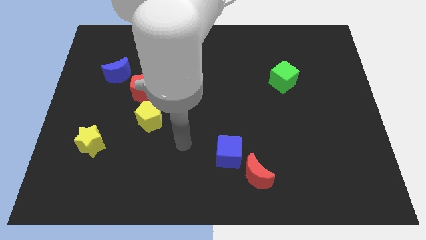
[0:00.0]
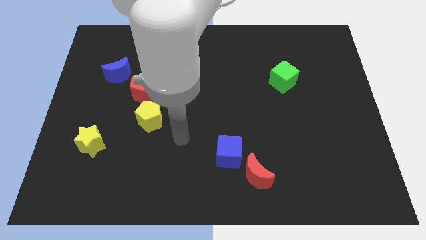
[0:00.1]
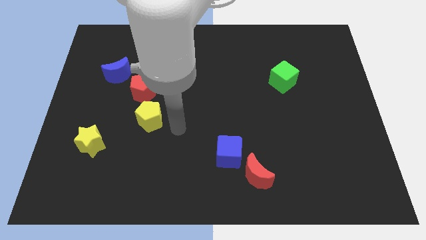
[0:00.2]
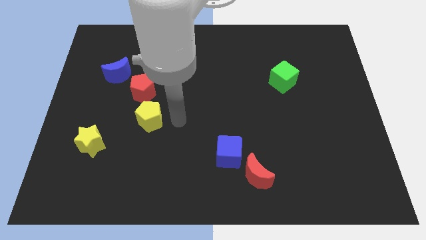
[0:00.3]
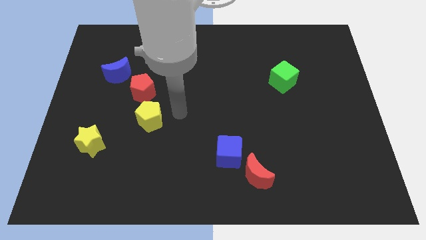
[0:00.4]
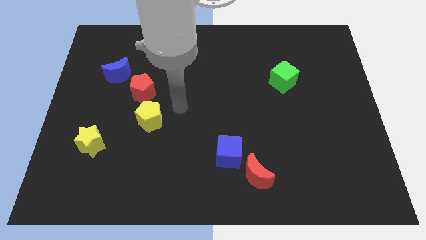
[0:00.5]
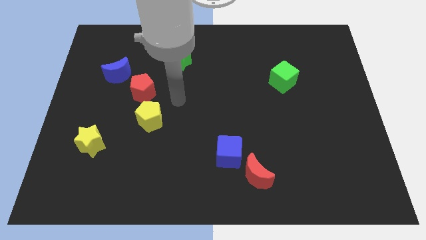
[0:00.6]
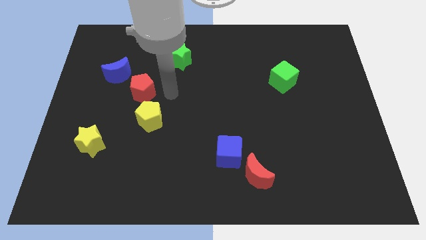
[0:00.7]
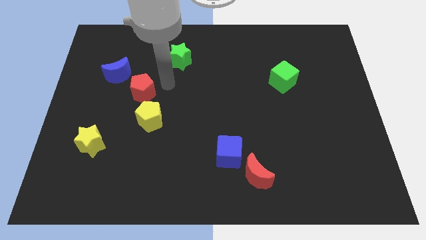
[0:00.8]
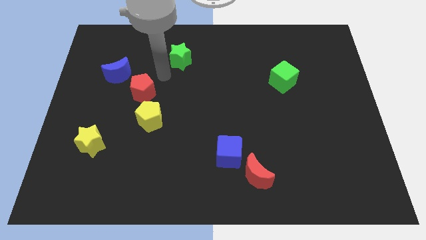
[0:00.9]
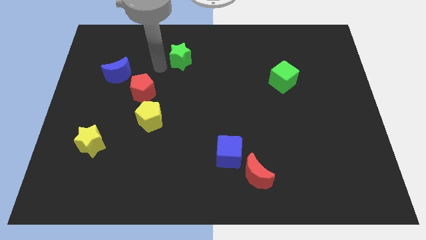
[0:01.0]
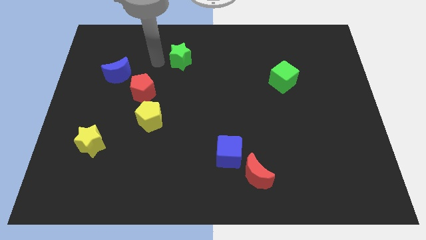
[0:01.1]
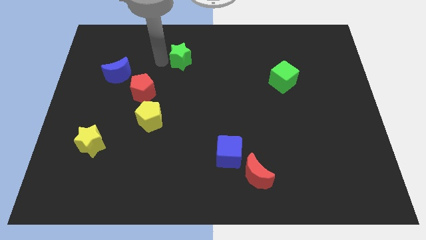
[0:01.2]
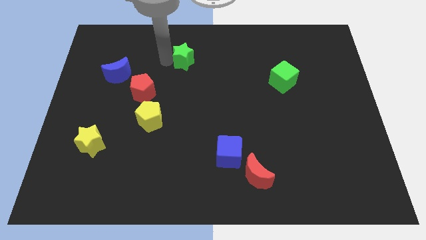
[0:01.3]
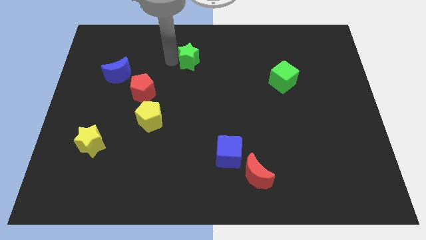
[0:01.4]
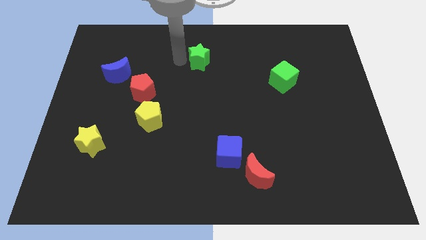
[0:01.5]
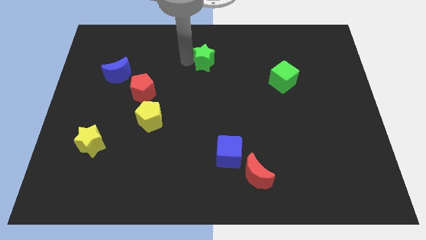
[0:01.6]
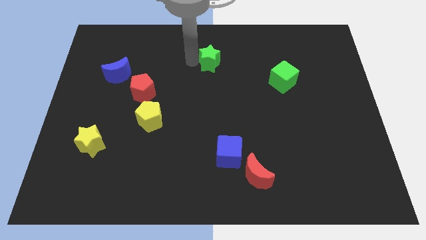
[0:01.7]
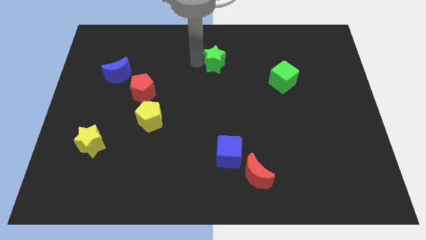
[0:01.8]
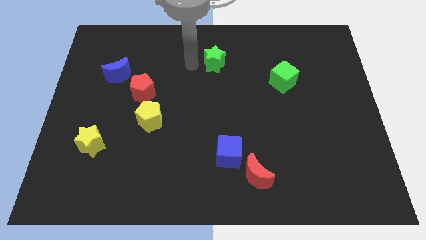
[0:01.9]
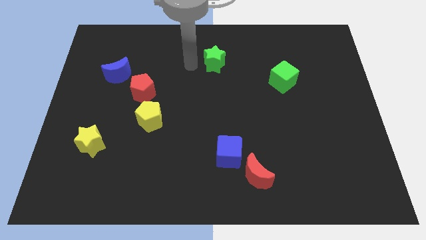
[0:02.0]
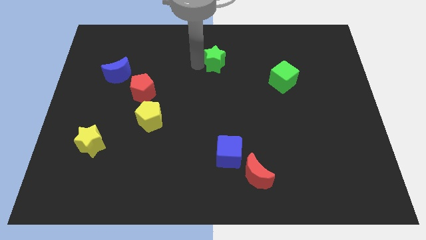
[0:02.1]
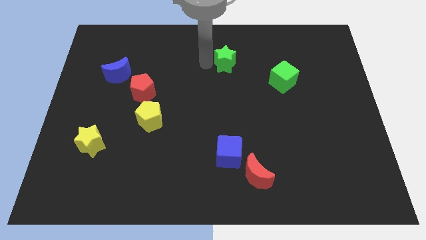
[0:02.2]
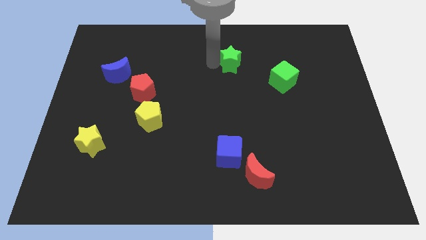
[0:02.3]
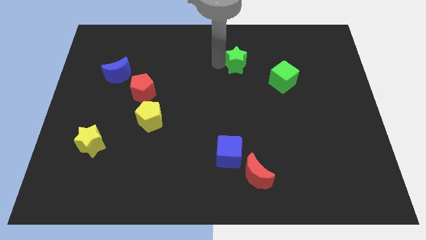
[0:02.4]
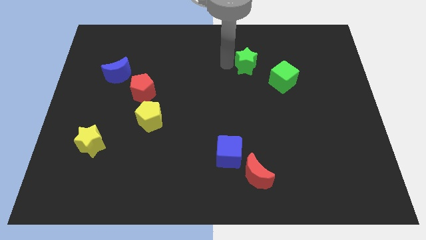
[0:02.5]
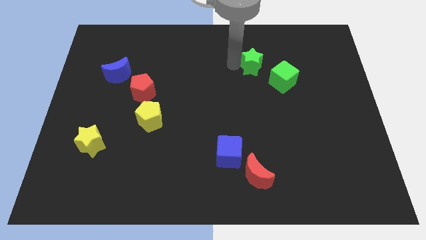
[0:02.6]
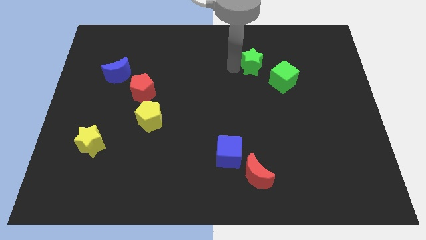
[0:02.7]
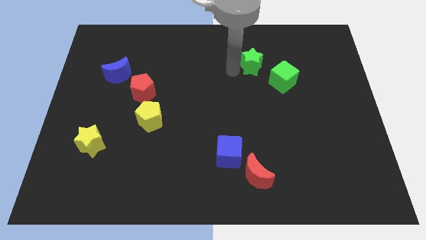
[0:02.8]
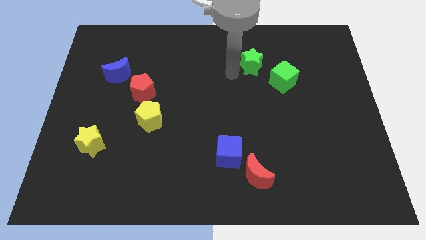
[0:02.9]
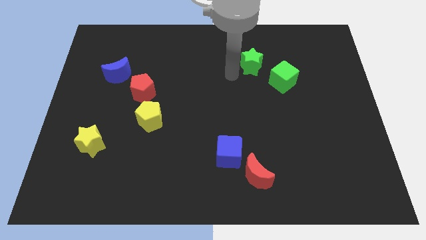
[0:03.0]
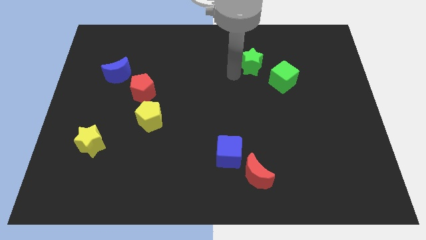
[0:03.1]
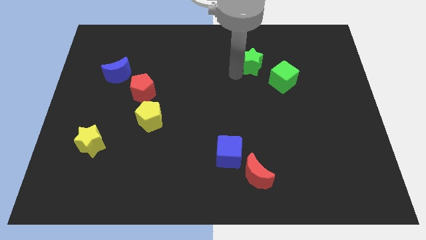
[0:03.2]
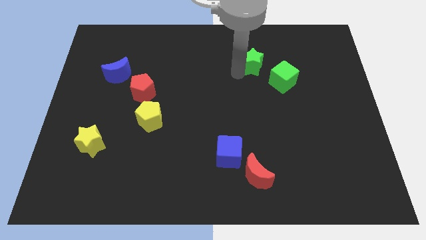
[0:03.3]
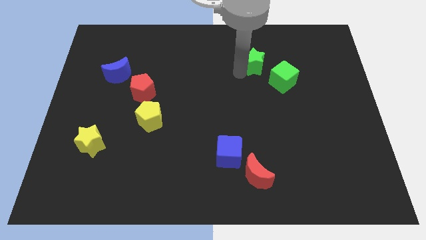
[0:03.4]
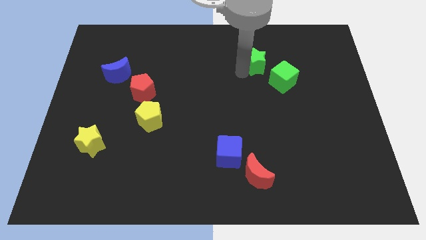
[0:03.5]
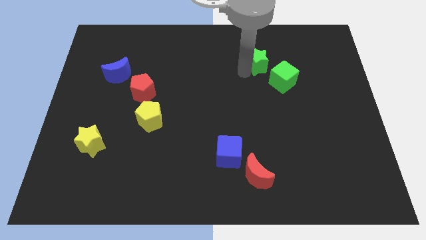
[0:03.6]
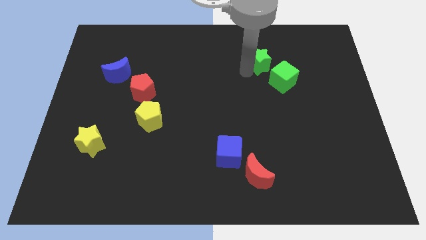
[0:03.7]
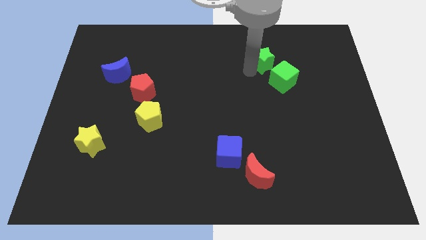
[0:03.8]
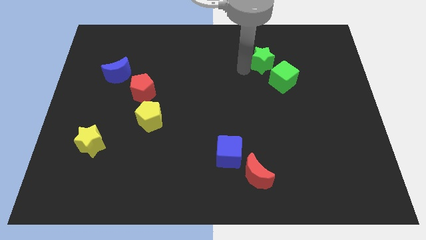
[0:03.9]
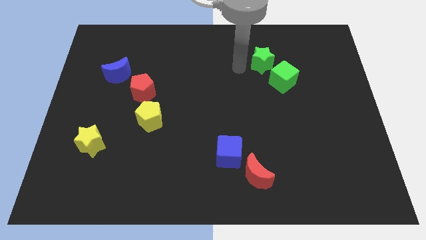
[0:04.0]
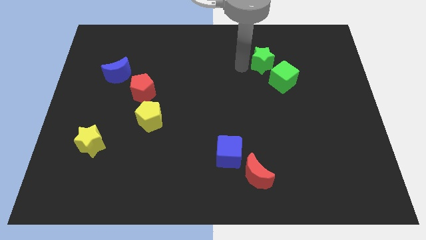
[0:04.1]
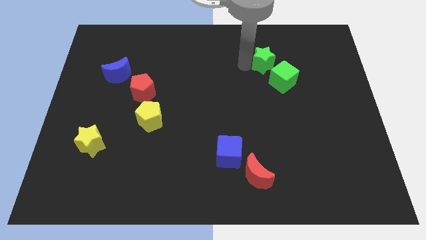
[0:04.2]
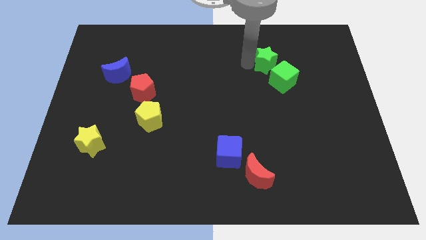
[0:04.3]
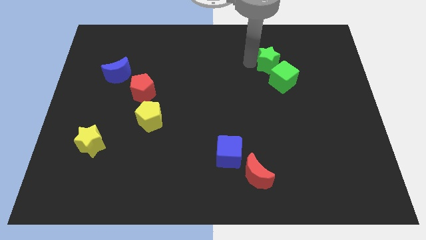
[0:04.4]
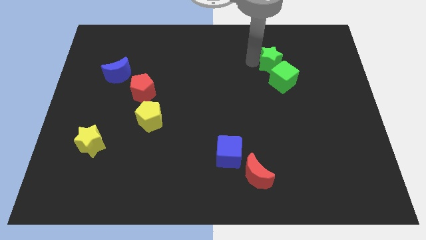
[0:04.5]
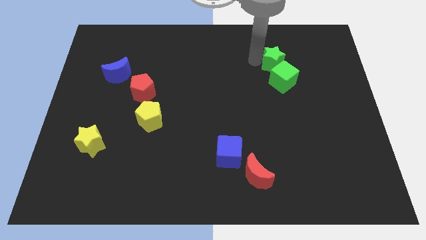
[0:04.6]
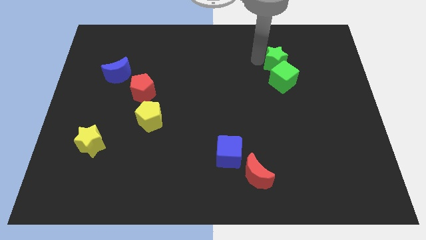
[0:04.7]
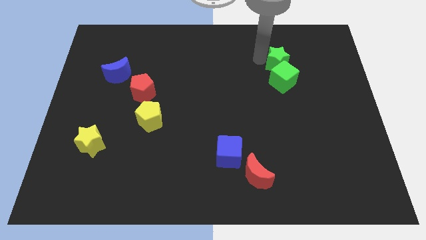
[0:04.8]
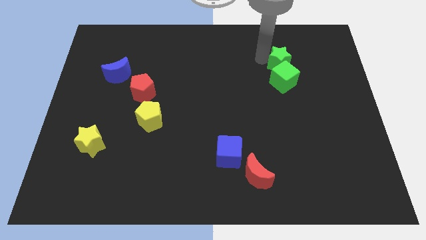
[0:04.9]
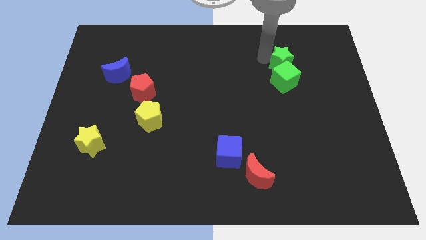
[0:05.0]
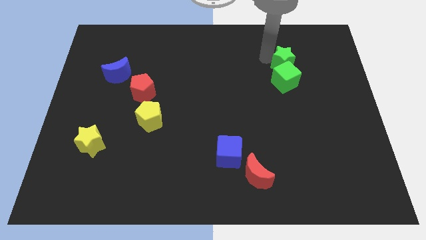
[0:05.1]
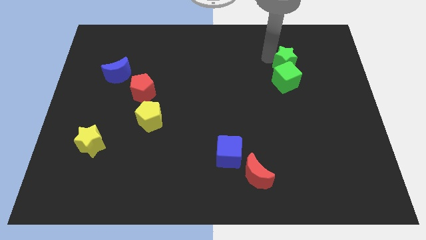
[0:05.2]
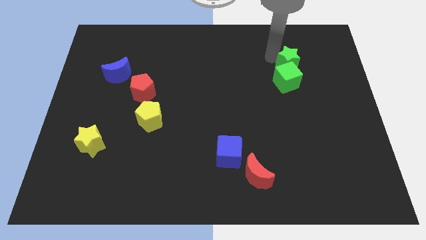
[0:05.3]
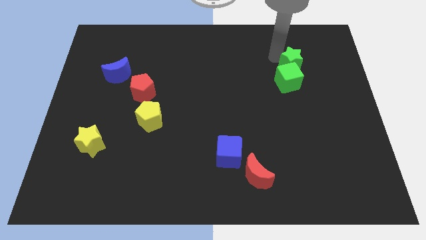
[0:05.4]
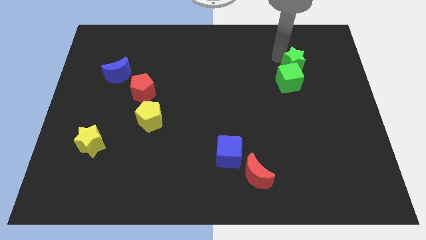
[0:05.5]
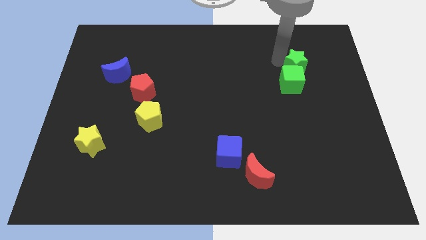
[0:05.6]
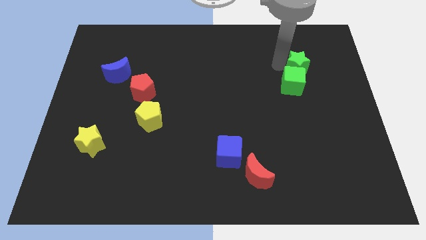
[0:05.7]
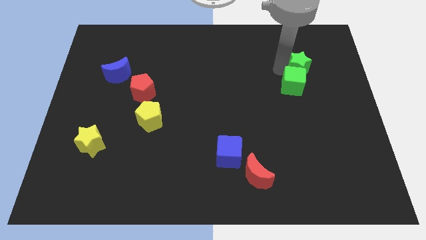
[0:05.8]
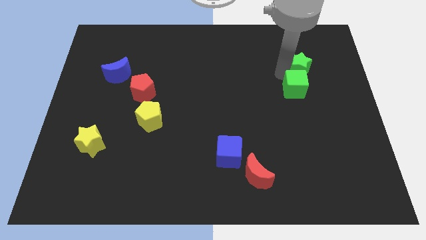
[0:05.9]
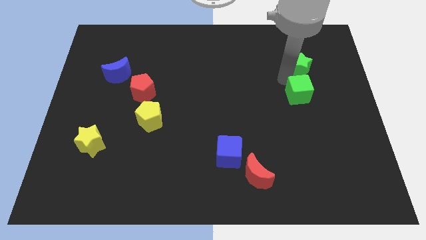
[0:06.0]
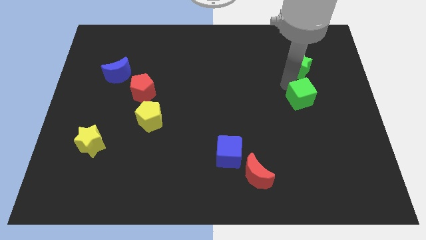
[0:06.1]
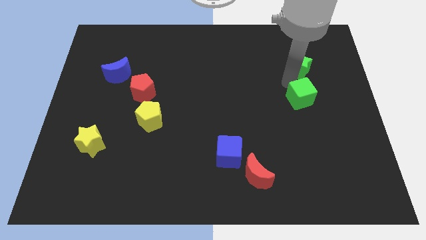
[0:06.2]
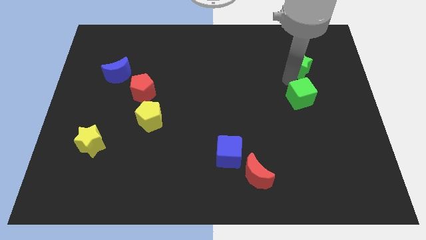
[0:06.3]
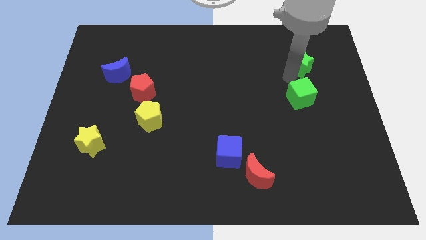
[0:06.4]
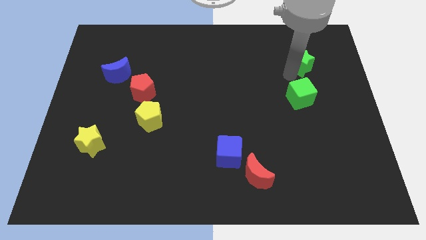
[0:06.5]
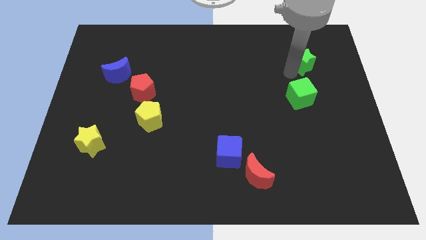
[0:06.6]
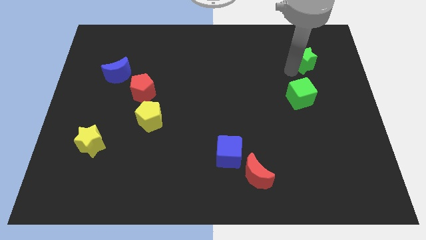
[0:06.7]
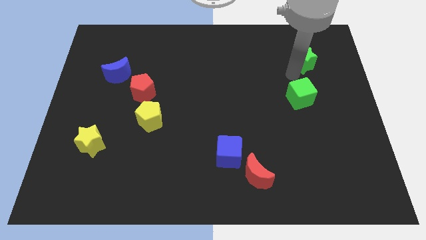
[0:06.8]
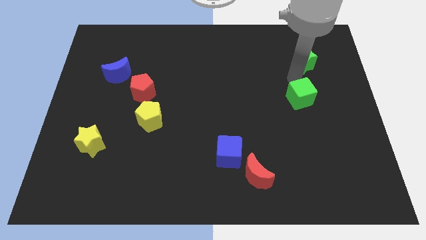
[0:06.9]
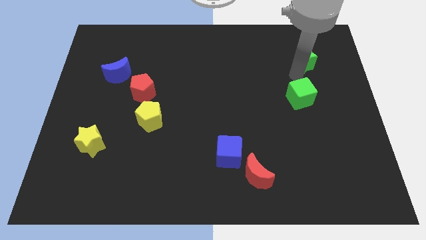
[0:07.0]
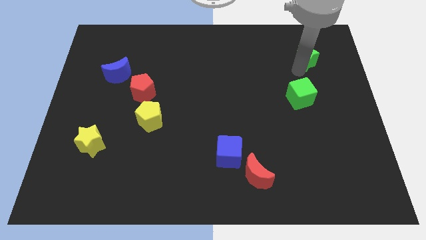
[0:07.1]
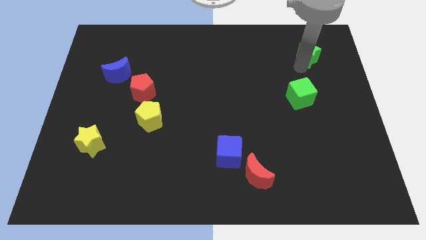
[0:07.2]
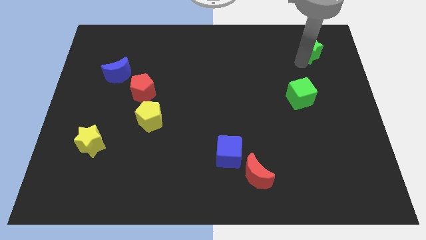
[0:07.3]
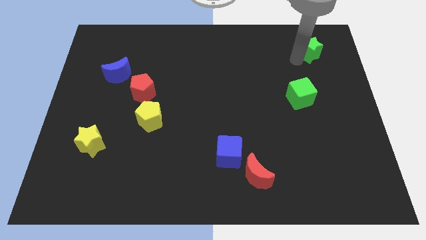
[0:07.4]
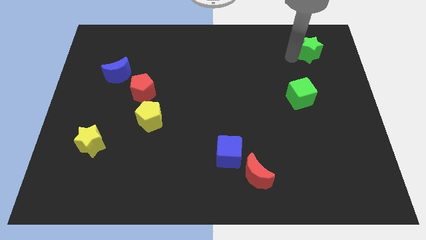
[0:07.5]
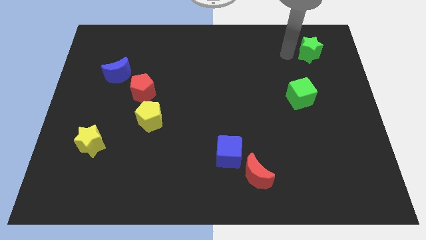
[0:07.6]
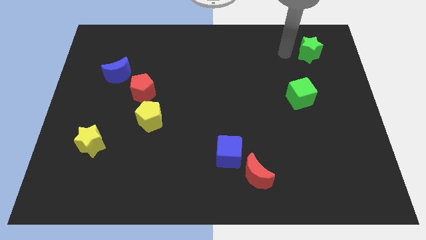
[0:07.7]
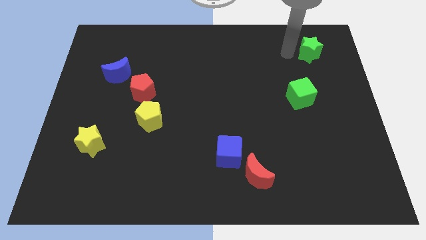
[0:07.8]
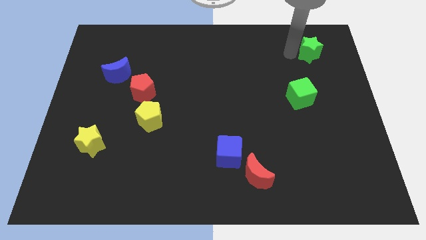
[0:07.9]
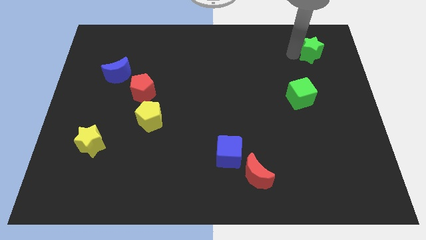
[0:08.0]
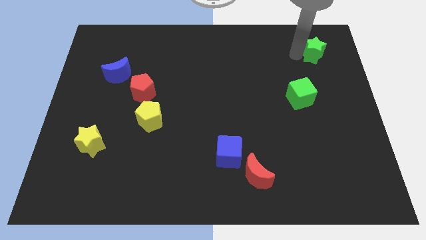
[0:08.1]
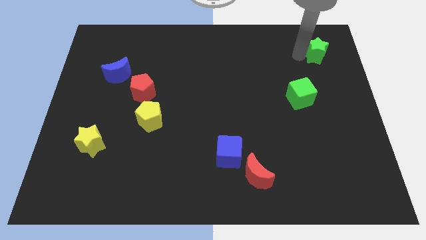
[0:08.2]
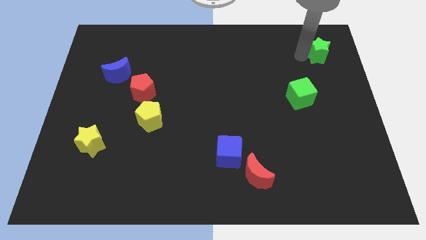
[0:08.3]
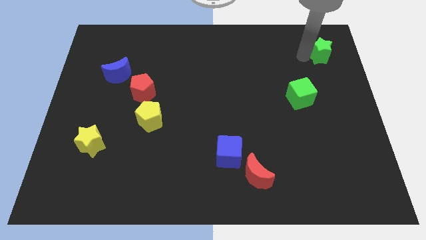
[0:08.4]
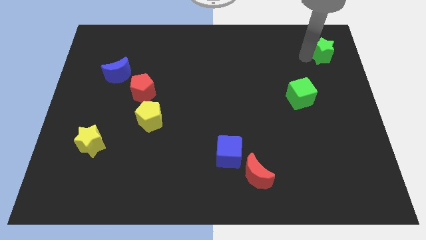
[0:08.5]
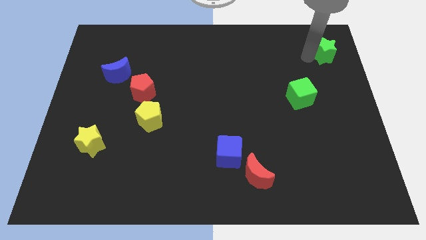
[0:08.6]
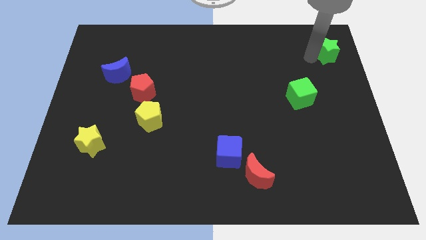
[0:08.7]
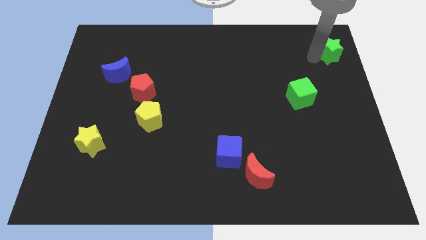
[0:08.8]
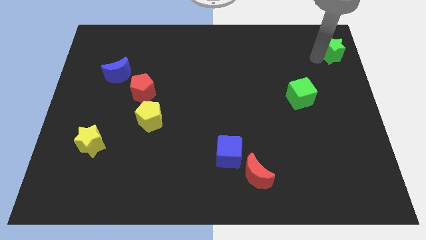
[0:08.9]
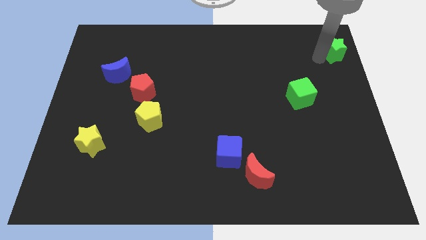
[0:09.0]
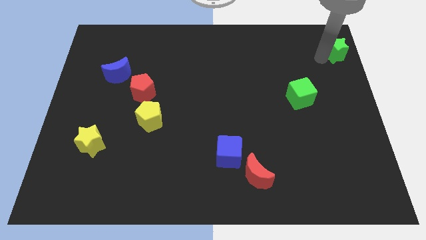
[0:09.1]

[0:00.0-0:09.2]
move the green star to the top right corner
